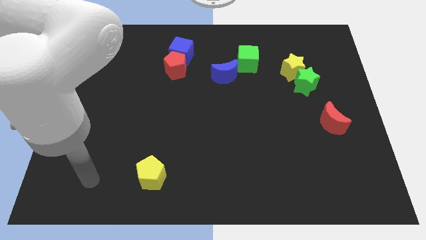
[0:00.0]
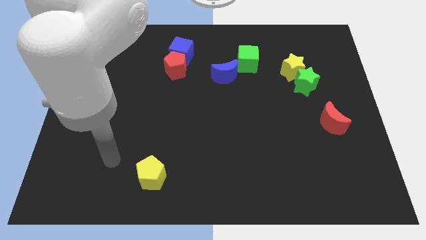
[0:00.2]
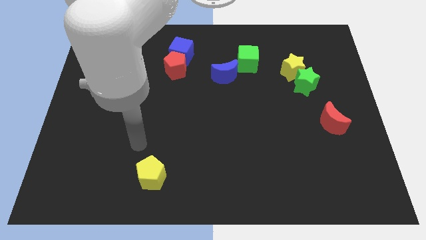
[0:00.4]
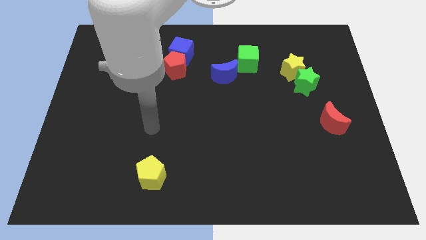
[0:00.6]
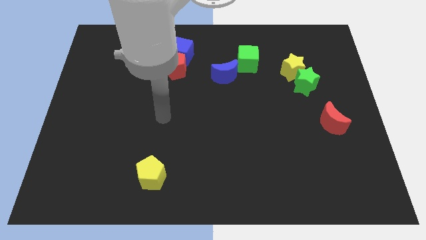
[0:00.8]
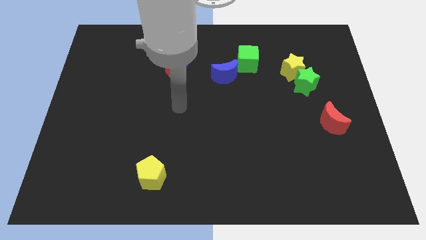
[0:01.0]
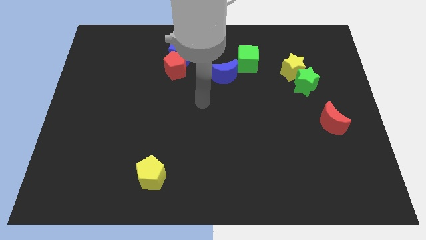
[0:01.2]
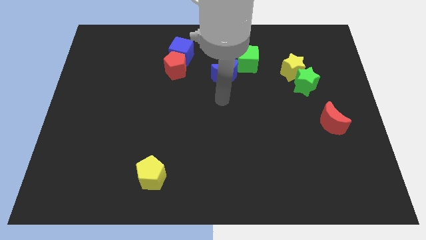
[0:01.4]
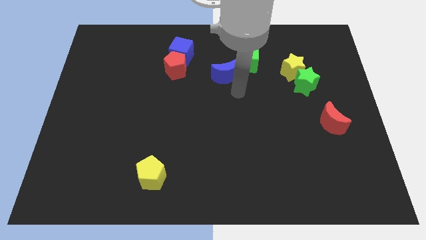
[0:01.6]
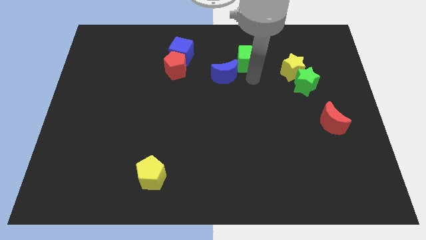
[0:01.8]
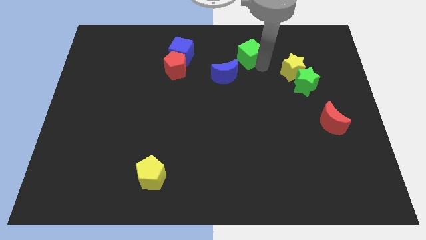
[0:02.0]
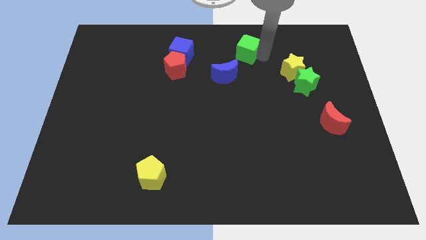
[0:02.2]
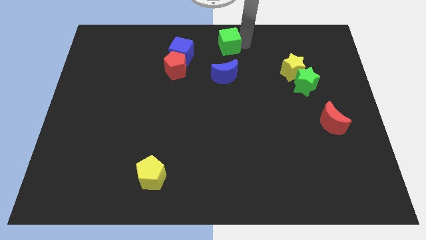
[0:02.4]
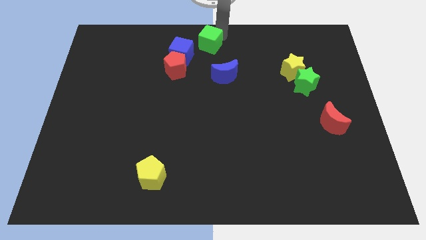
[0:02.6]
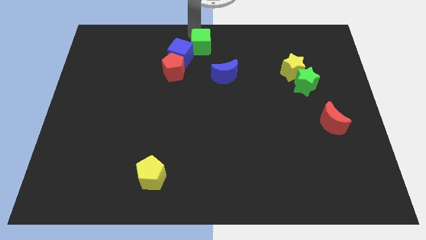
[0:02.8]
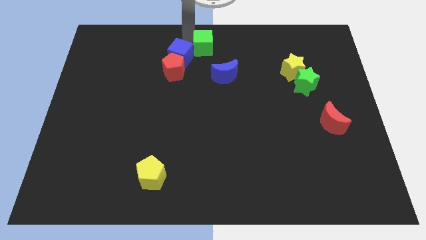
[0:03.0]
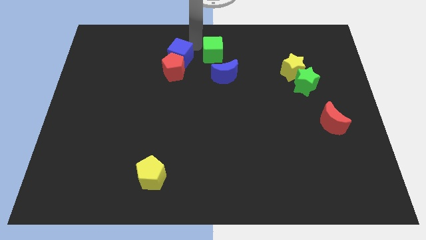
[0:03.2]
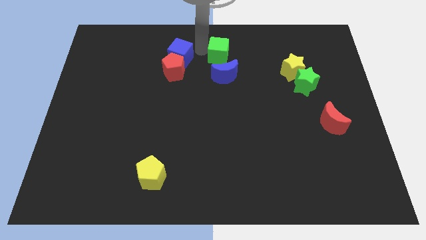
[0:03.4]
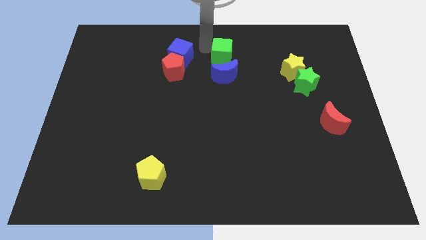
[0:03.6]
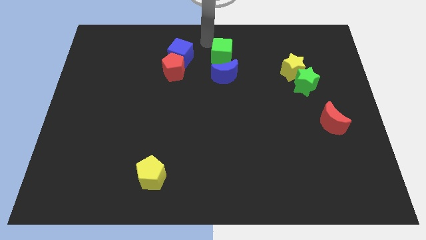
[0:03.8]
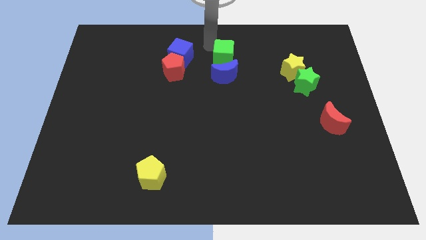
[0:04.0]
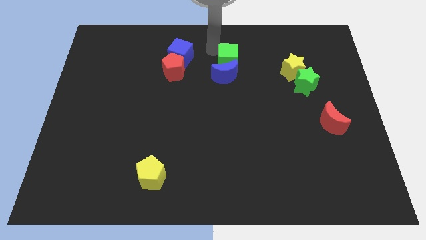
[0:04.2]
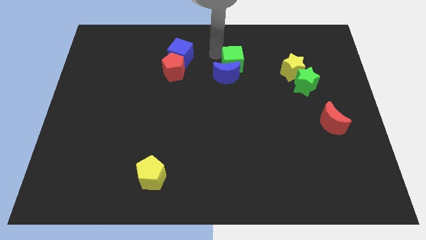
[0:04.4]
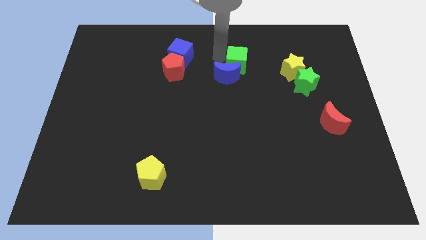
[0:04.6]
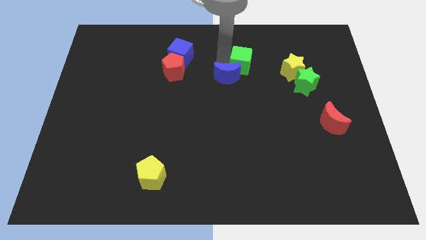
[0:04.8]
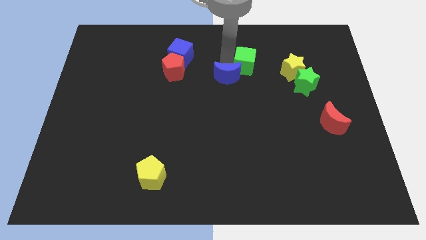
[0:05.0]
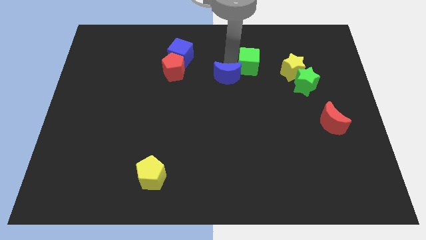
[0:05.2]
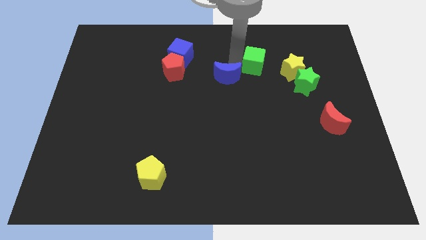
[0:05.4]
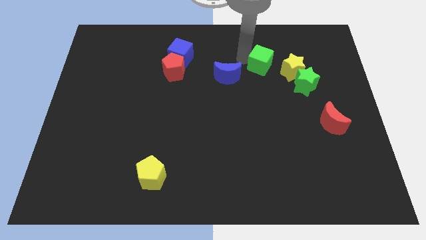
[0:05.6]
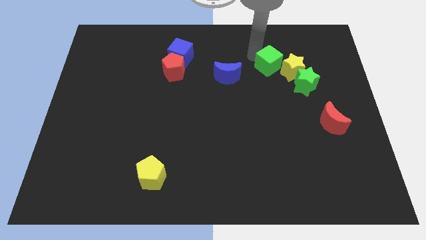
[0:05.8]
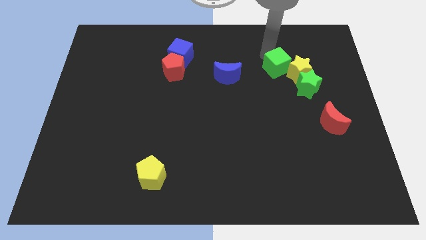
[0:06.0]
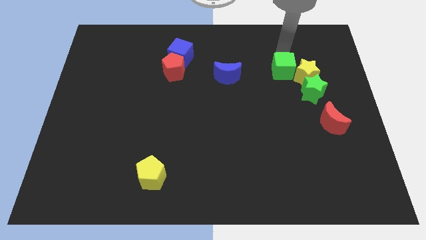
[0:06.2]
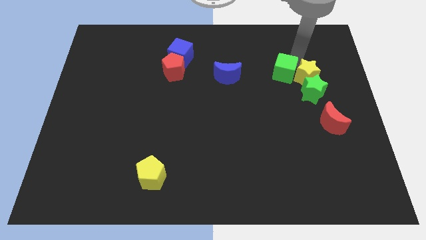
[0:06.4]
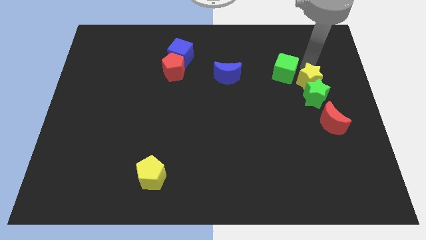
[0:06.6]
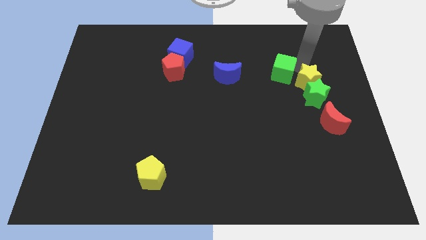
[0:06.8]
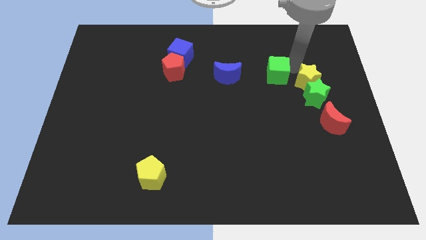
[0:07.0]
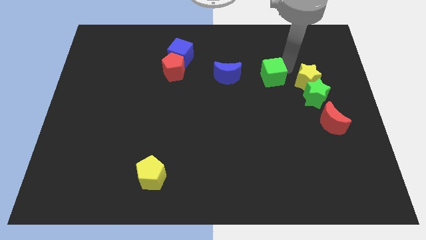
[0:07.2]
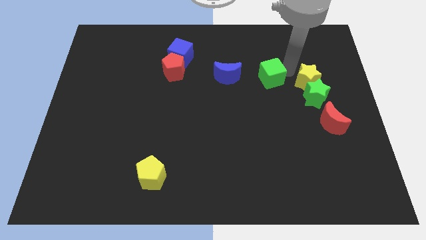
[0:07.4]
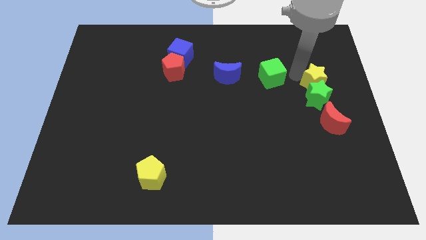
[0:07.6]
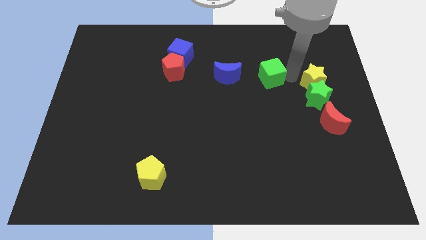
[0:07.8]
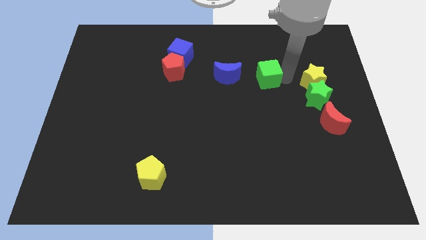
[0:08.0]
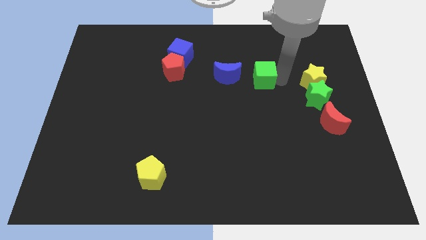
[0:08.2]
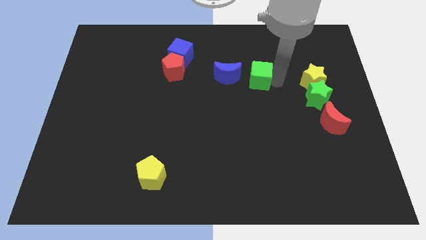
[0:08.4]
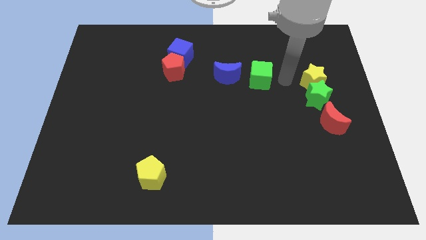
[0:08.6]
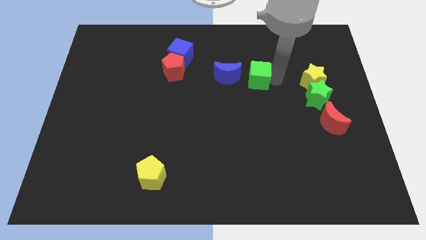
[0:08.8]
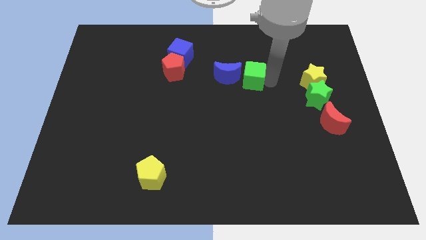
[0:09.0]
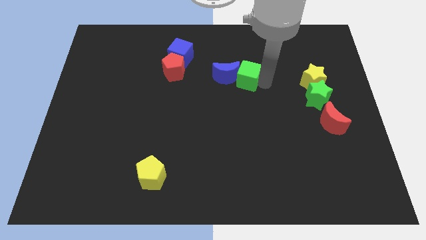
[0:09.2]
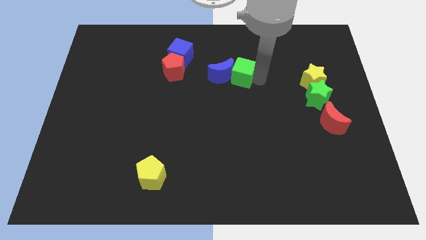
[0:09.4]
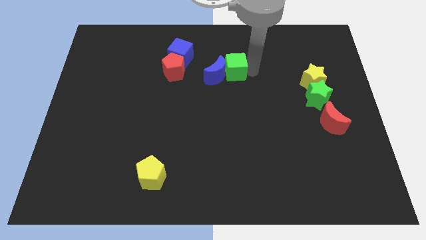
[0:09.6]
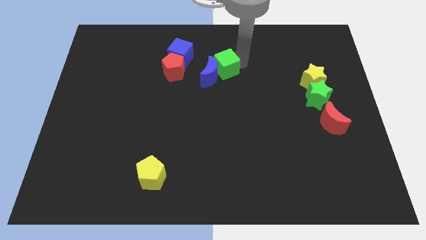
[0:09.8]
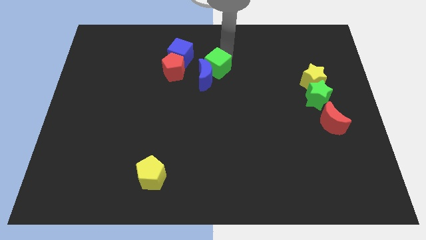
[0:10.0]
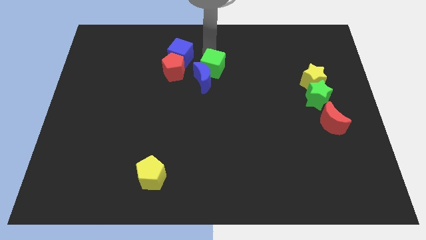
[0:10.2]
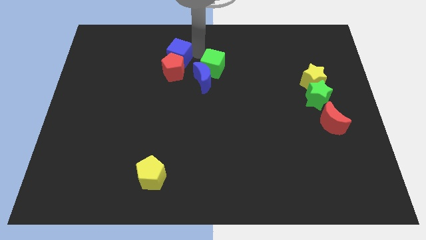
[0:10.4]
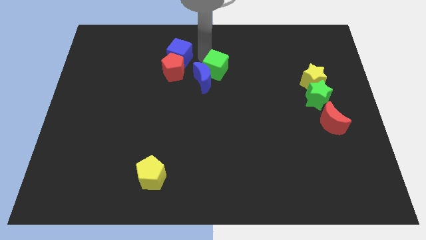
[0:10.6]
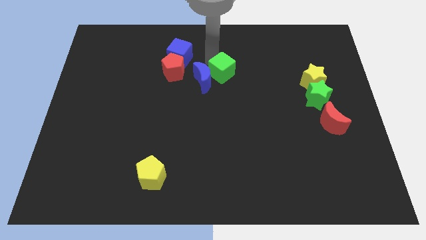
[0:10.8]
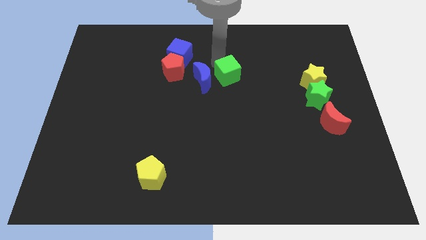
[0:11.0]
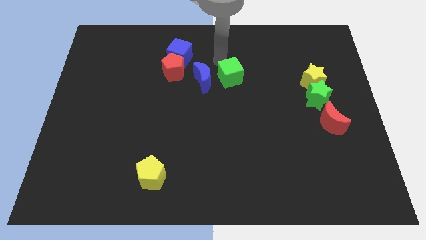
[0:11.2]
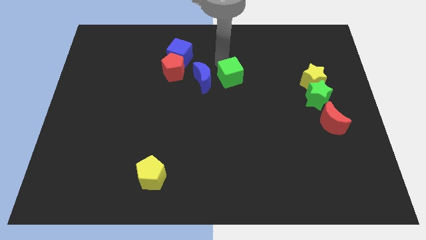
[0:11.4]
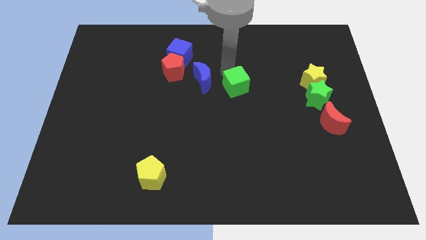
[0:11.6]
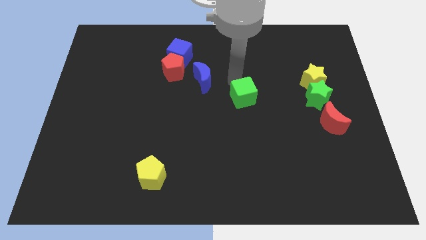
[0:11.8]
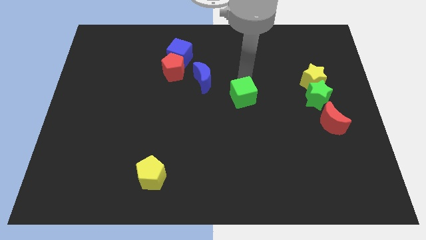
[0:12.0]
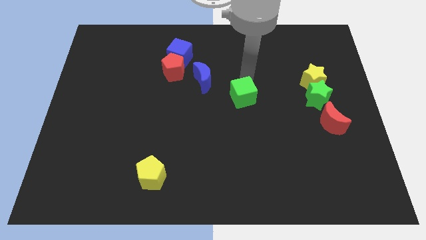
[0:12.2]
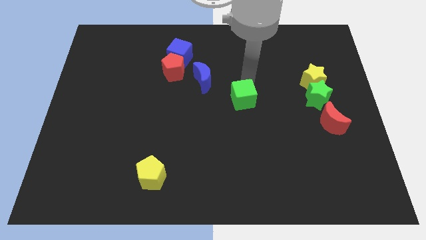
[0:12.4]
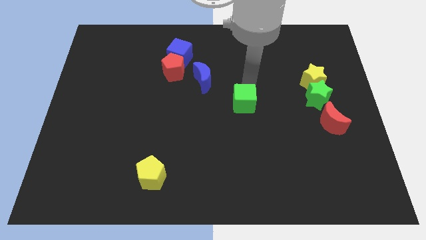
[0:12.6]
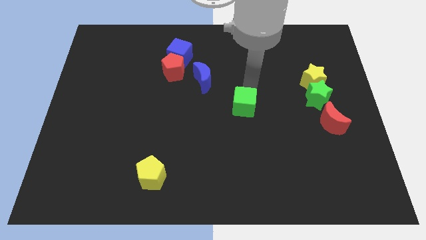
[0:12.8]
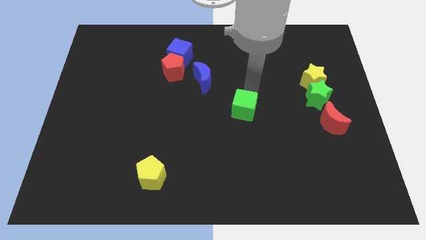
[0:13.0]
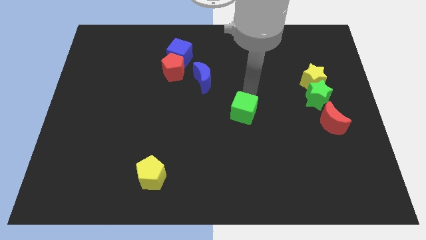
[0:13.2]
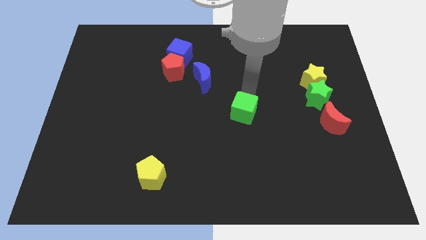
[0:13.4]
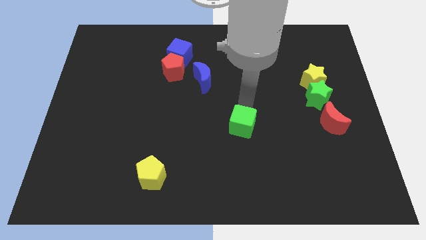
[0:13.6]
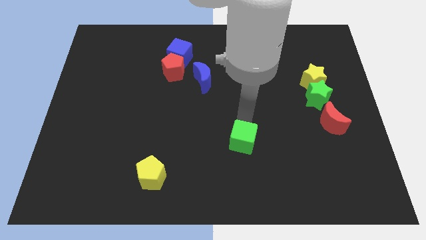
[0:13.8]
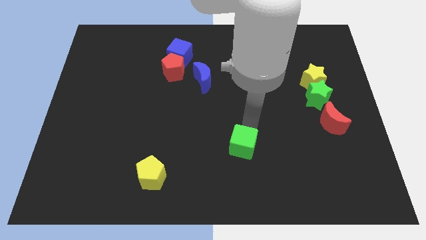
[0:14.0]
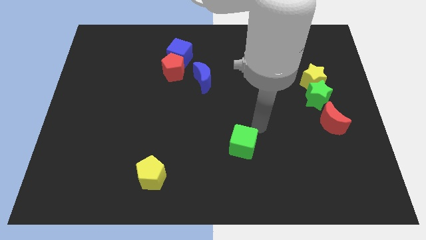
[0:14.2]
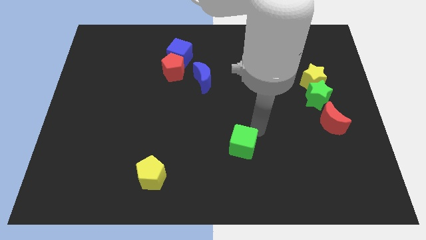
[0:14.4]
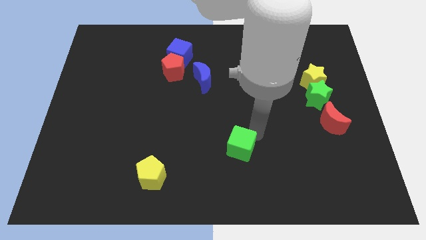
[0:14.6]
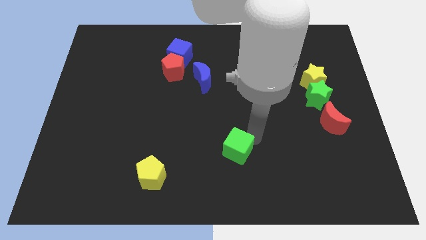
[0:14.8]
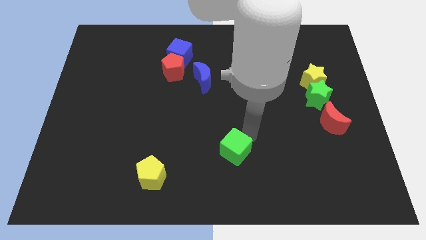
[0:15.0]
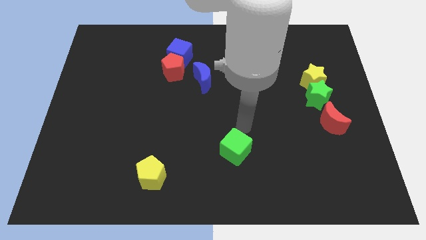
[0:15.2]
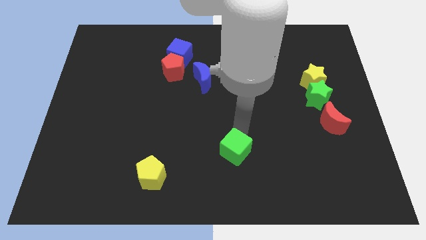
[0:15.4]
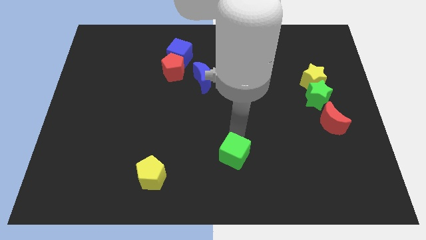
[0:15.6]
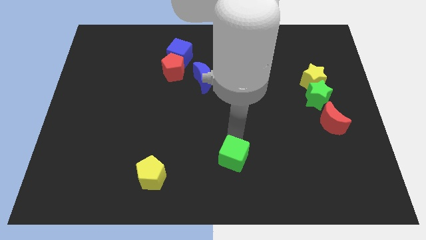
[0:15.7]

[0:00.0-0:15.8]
put the green cube to the bottom side
